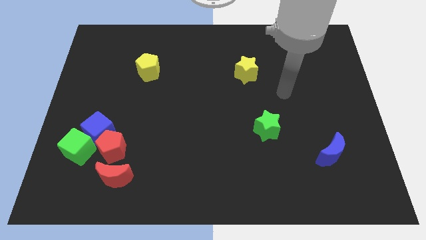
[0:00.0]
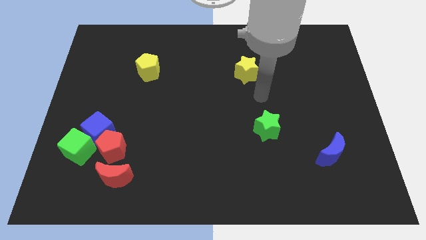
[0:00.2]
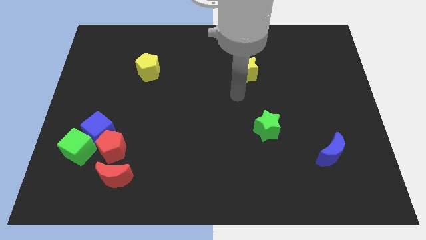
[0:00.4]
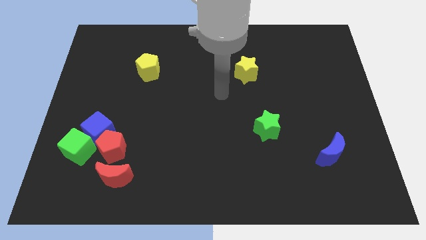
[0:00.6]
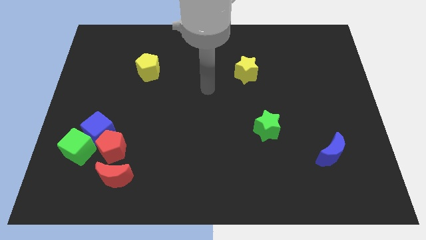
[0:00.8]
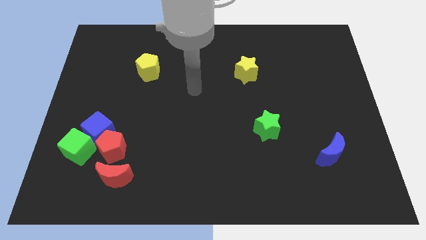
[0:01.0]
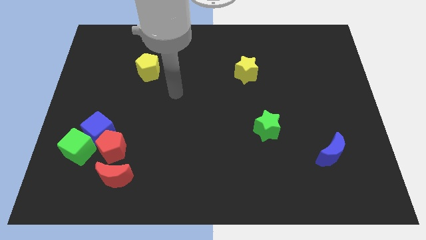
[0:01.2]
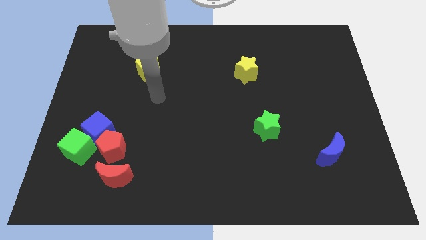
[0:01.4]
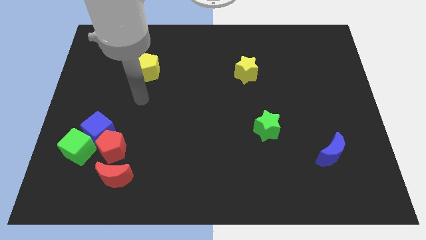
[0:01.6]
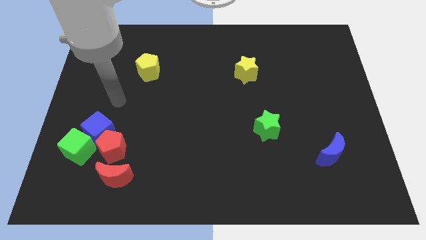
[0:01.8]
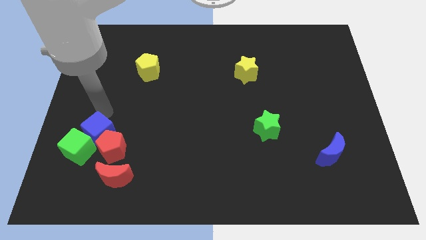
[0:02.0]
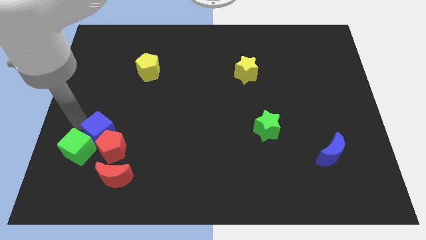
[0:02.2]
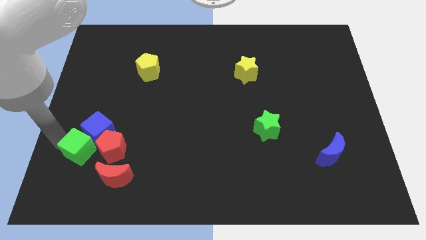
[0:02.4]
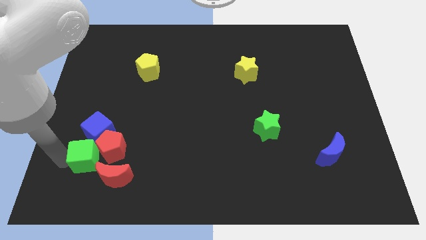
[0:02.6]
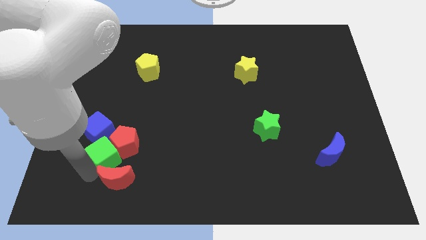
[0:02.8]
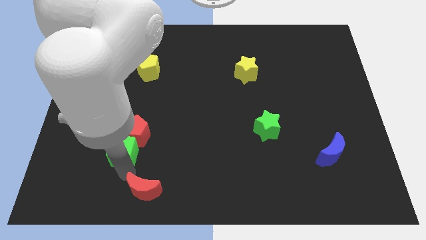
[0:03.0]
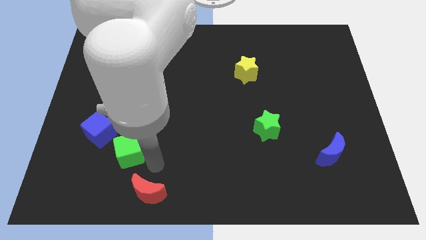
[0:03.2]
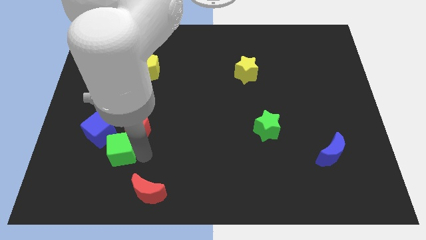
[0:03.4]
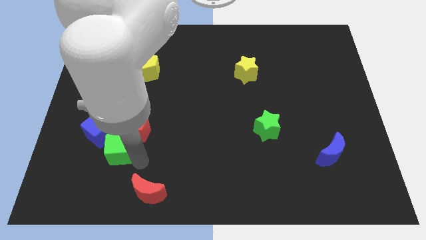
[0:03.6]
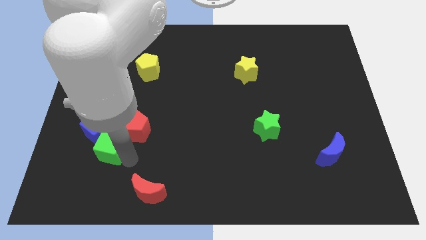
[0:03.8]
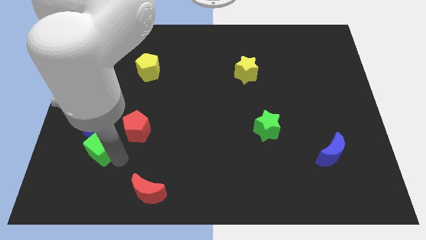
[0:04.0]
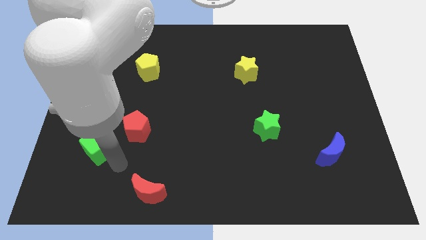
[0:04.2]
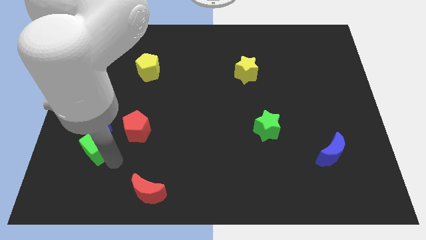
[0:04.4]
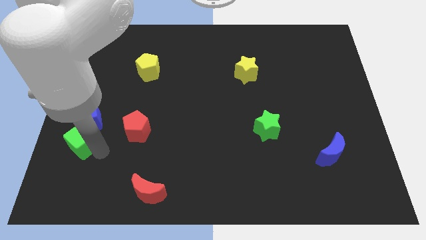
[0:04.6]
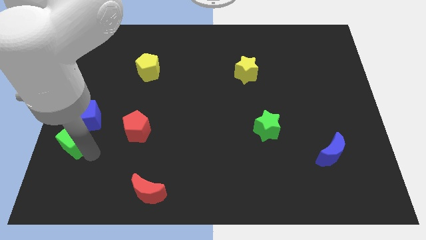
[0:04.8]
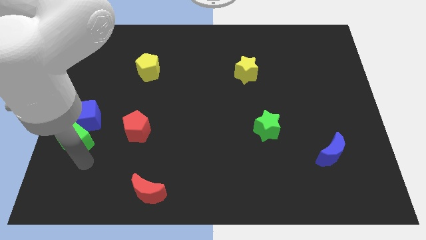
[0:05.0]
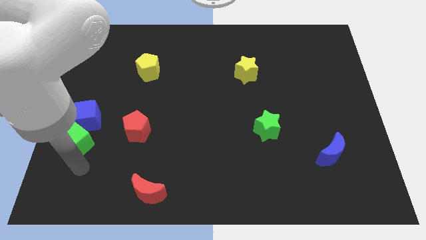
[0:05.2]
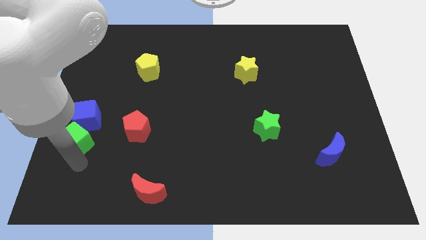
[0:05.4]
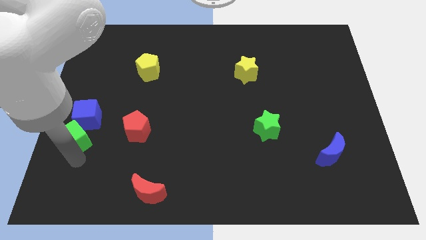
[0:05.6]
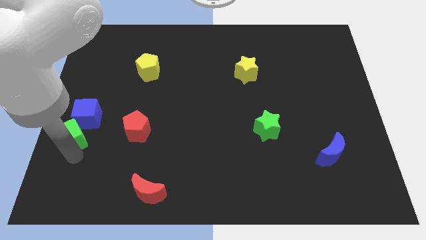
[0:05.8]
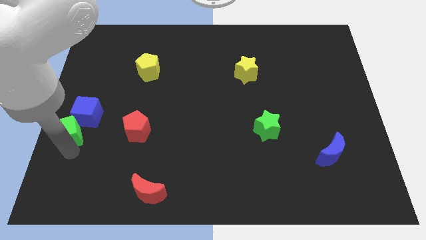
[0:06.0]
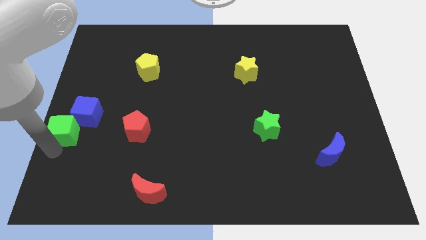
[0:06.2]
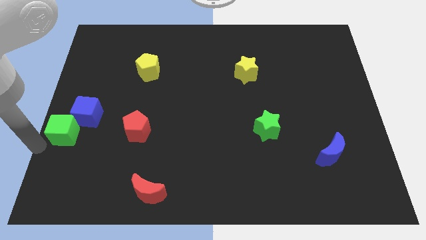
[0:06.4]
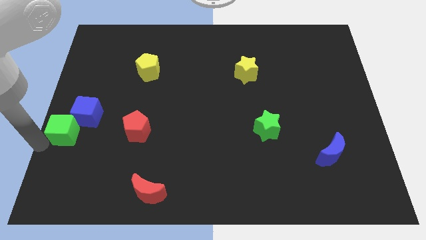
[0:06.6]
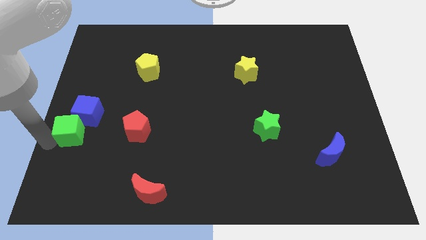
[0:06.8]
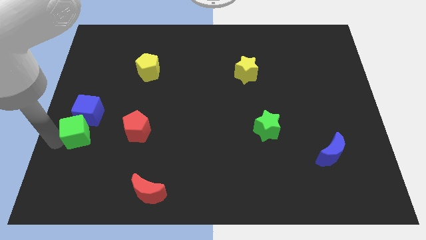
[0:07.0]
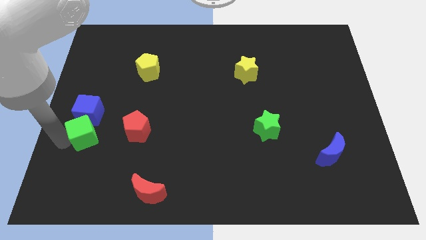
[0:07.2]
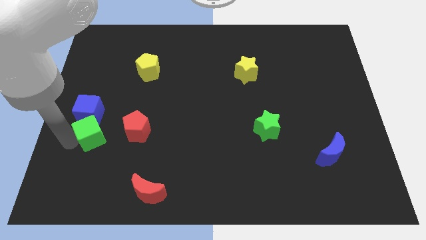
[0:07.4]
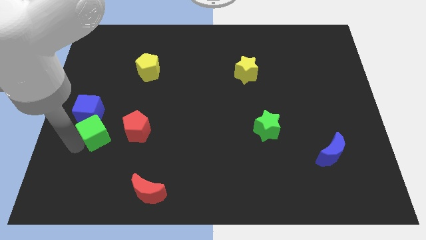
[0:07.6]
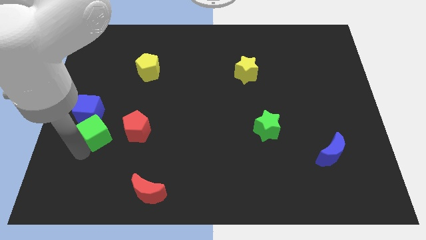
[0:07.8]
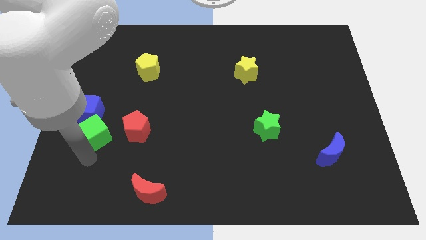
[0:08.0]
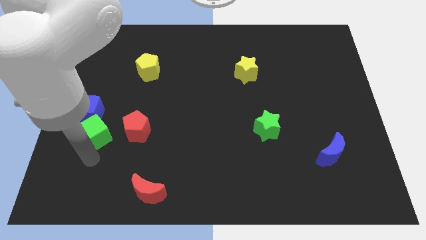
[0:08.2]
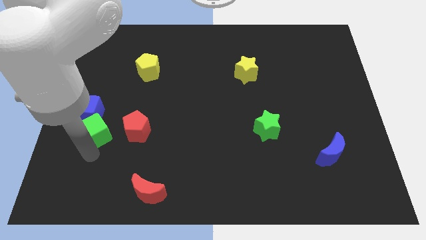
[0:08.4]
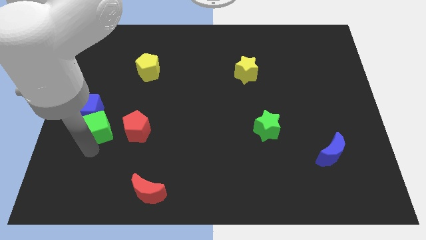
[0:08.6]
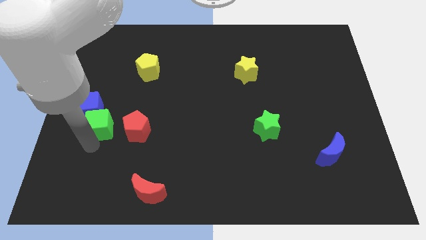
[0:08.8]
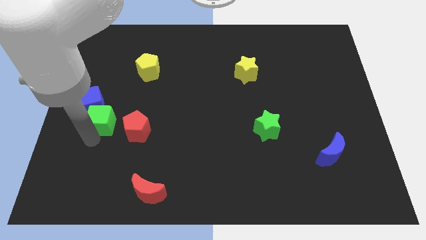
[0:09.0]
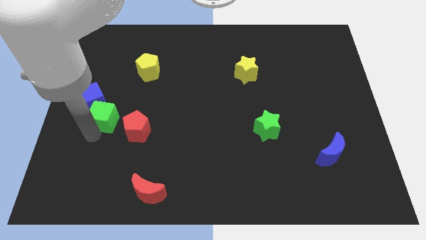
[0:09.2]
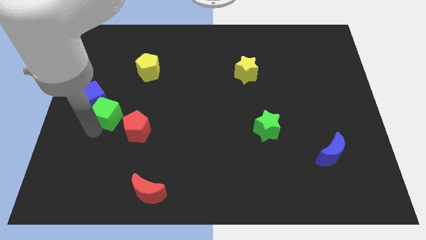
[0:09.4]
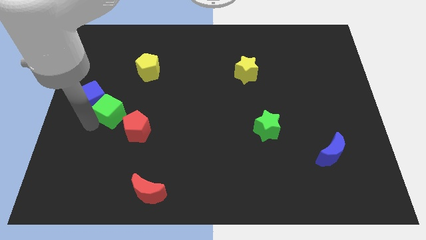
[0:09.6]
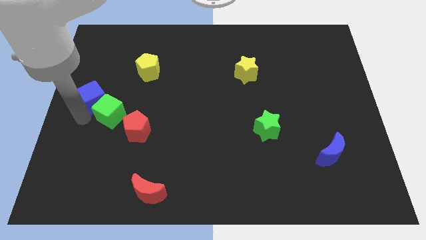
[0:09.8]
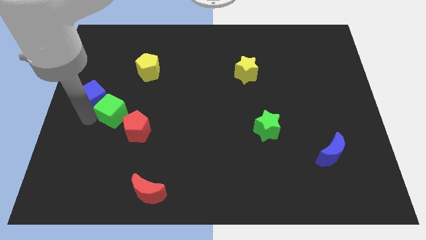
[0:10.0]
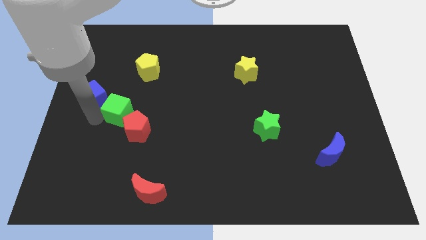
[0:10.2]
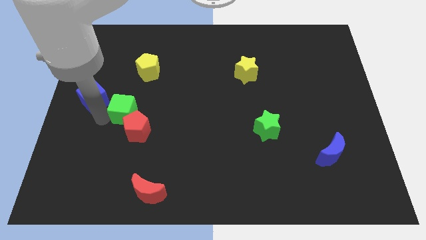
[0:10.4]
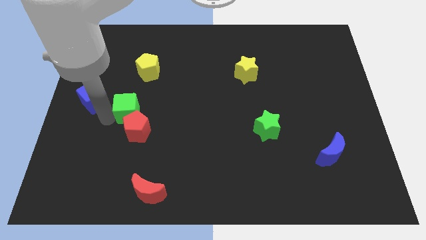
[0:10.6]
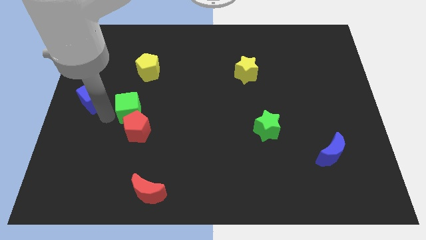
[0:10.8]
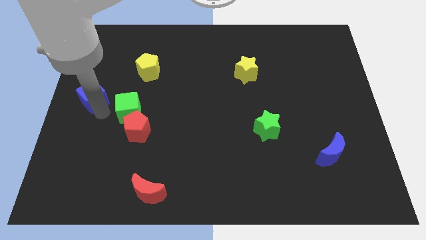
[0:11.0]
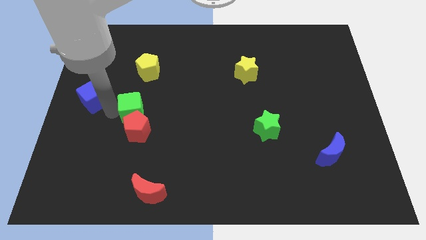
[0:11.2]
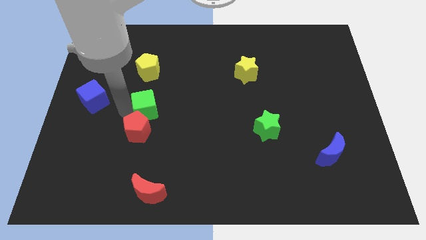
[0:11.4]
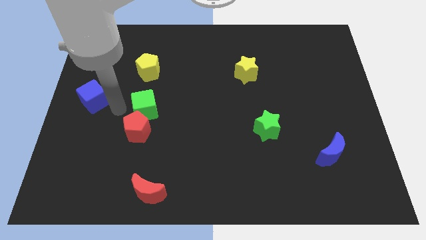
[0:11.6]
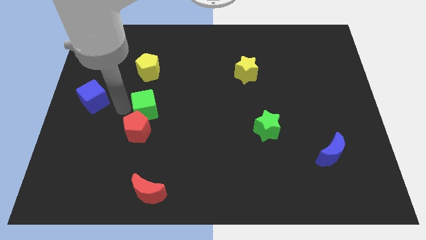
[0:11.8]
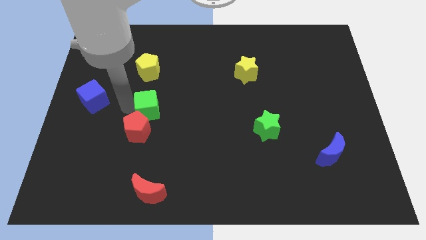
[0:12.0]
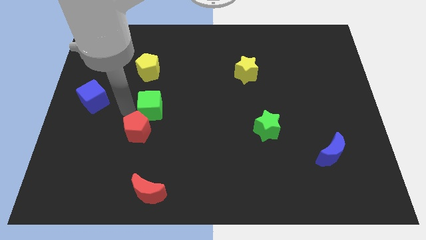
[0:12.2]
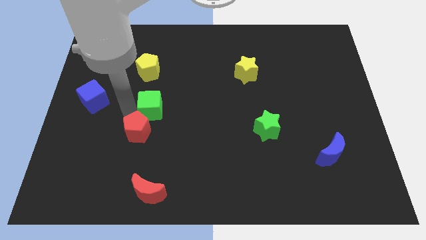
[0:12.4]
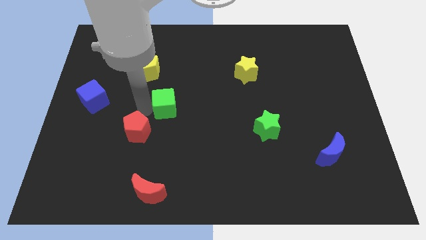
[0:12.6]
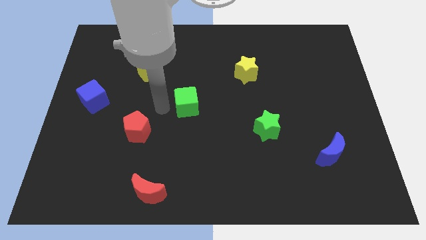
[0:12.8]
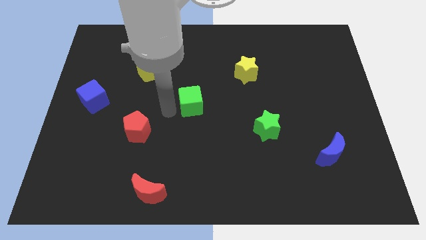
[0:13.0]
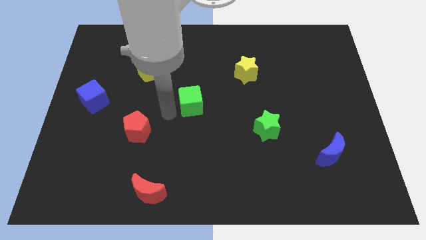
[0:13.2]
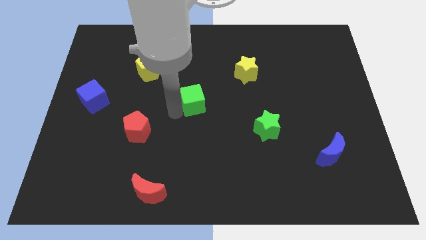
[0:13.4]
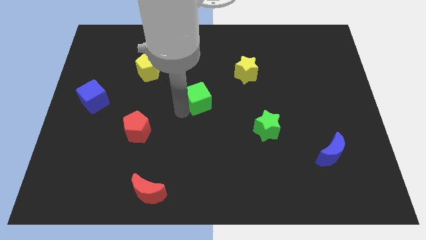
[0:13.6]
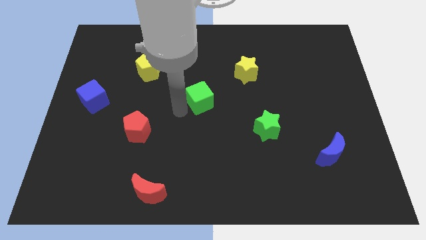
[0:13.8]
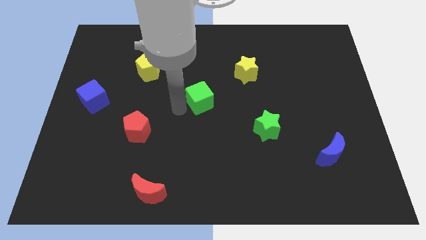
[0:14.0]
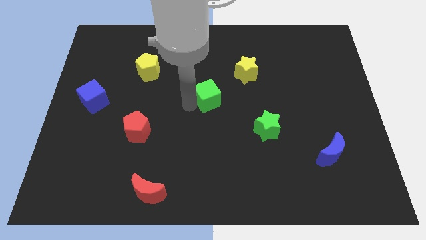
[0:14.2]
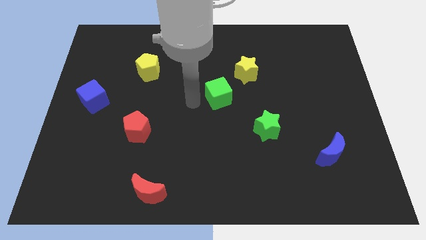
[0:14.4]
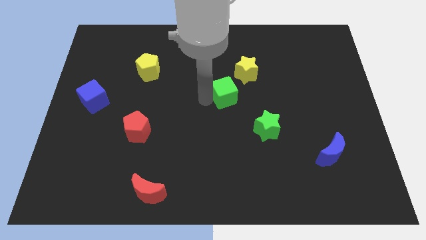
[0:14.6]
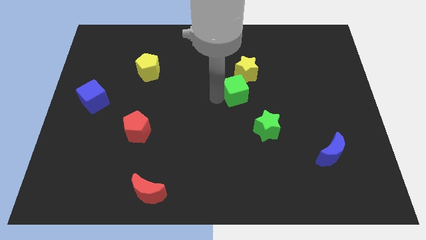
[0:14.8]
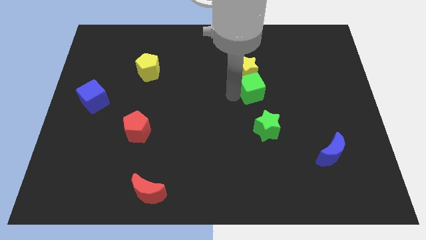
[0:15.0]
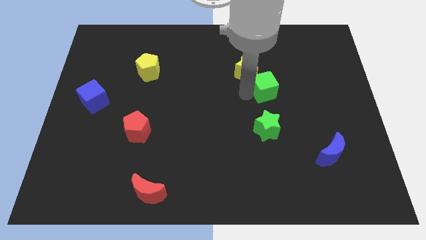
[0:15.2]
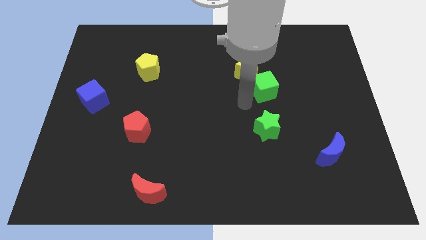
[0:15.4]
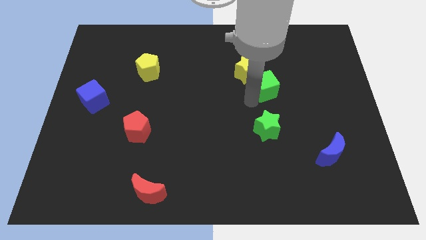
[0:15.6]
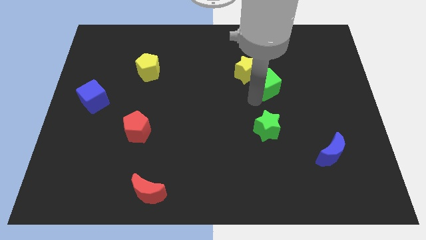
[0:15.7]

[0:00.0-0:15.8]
slide the green cube just right of the yellow star
